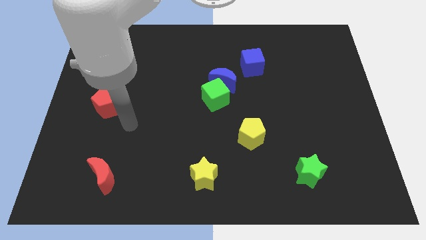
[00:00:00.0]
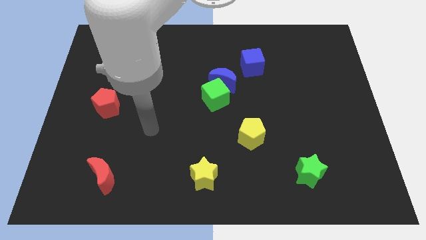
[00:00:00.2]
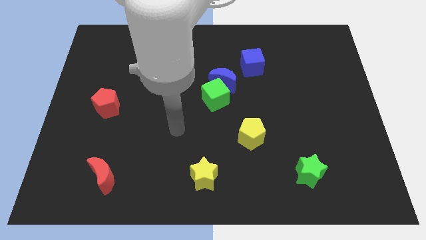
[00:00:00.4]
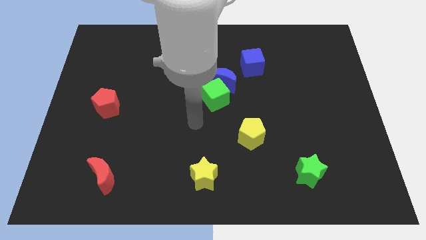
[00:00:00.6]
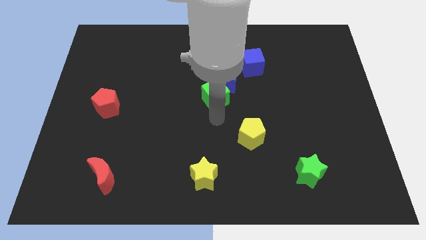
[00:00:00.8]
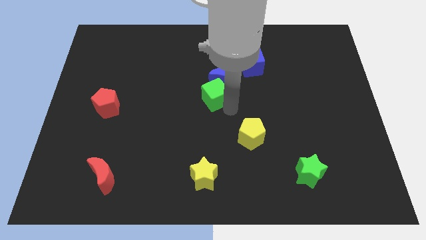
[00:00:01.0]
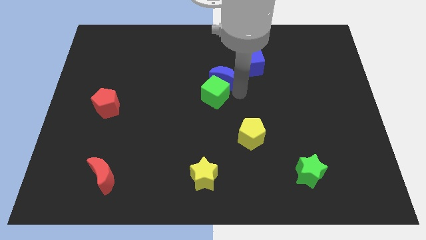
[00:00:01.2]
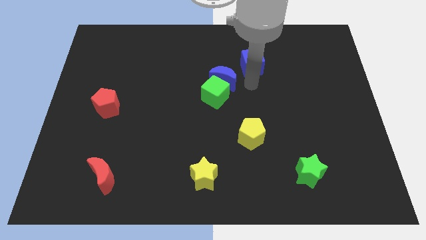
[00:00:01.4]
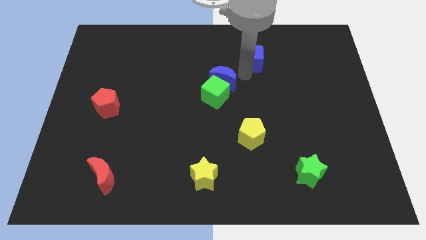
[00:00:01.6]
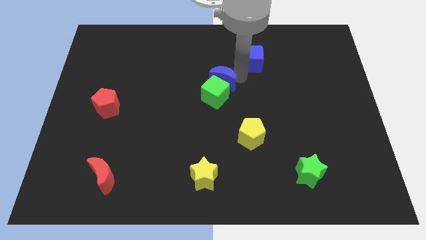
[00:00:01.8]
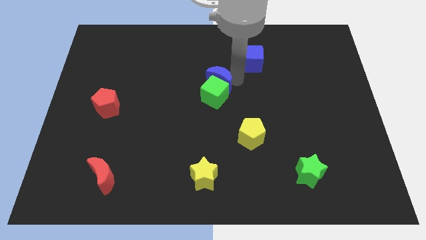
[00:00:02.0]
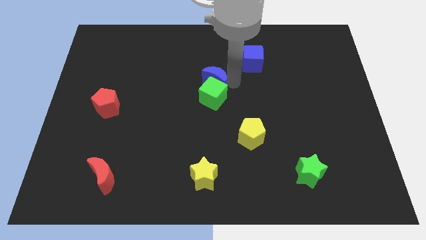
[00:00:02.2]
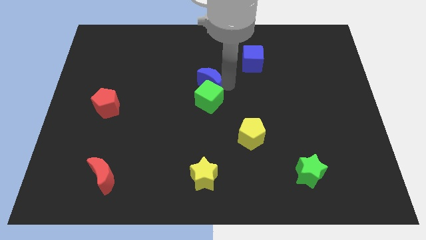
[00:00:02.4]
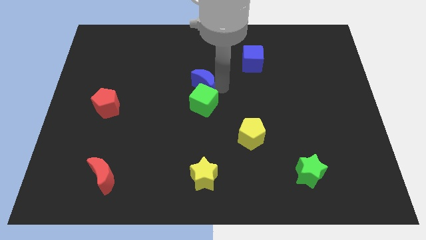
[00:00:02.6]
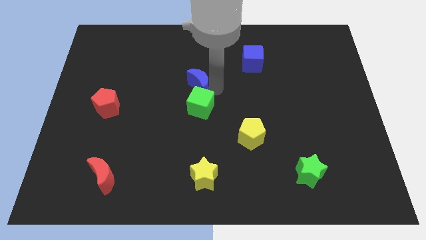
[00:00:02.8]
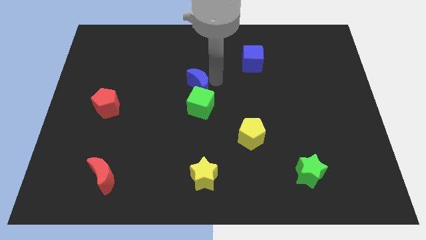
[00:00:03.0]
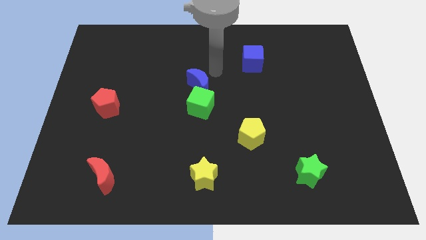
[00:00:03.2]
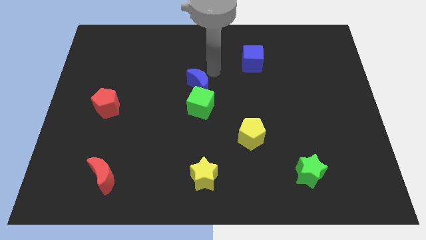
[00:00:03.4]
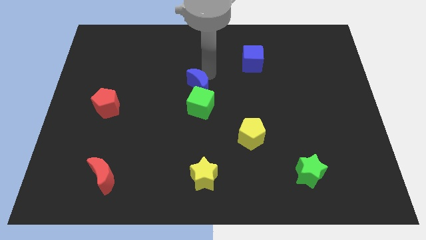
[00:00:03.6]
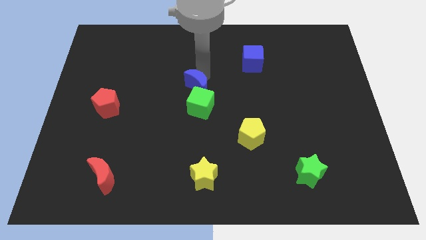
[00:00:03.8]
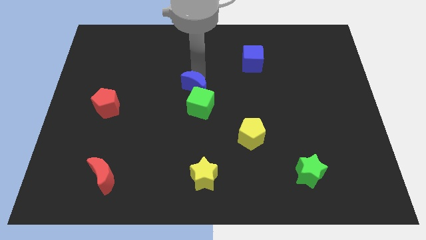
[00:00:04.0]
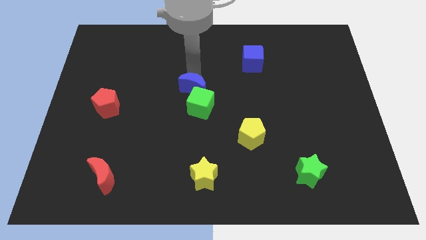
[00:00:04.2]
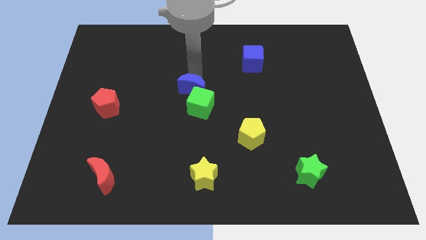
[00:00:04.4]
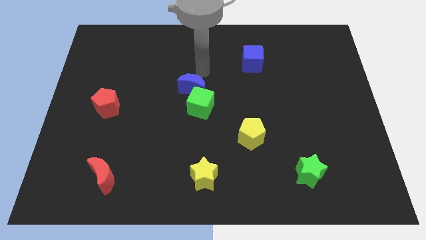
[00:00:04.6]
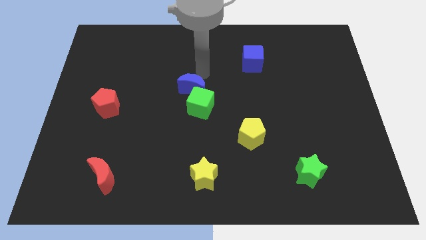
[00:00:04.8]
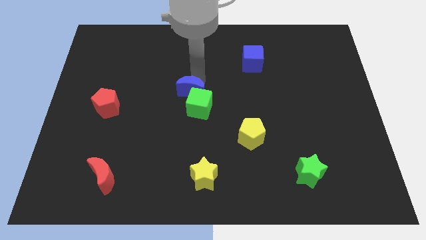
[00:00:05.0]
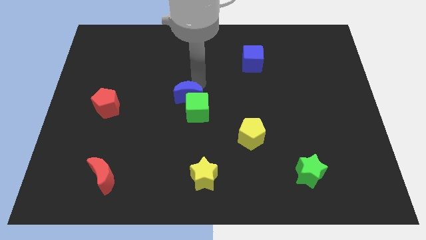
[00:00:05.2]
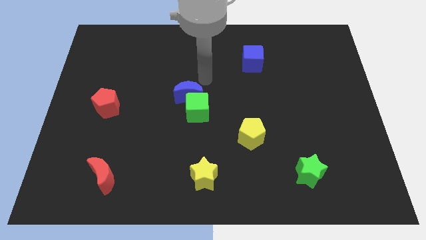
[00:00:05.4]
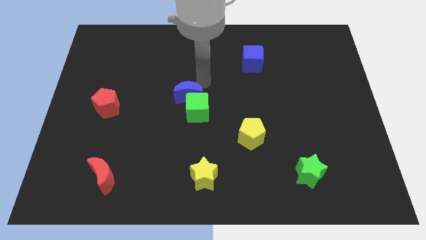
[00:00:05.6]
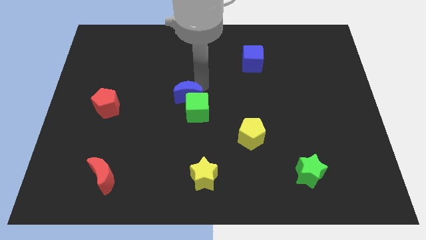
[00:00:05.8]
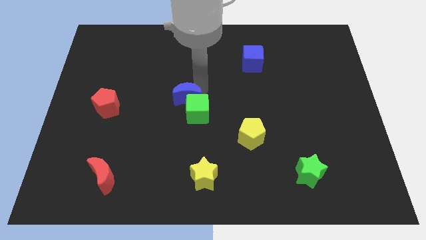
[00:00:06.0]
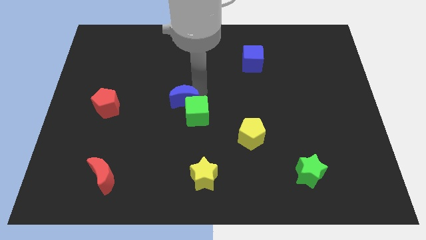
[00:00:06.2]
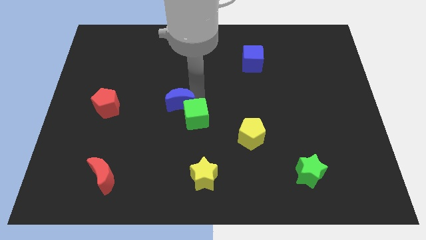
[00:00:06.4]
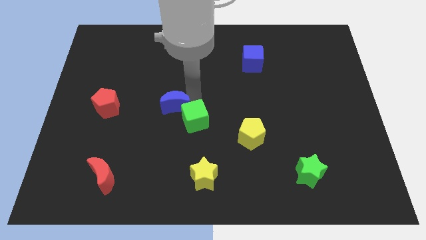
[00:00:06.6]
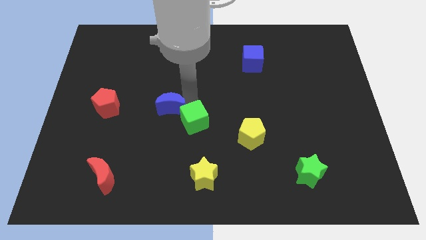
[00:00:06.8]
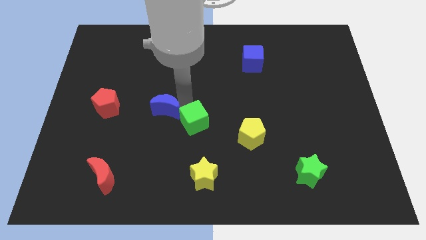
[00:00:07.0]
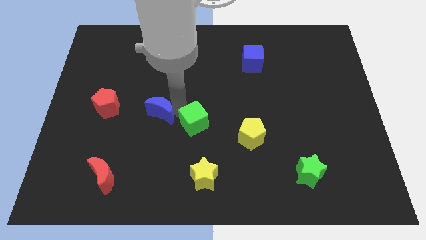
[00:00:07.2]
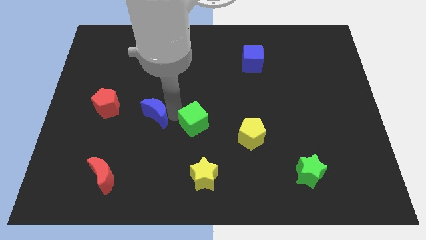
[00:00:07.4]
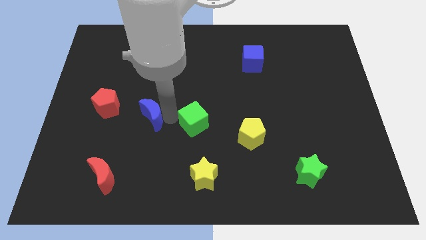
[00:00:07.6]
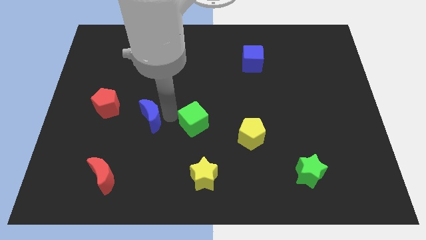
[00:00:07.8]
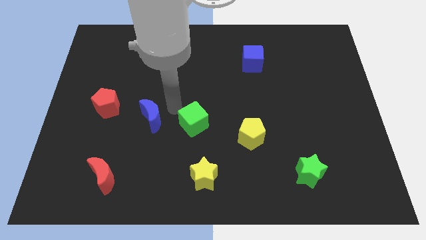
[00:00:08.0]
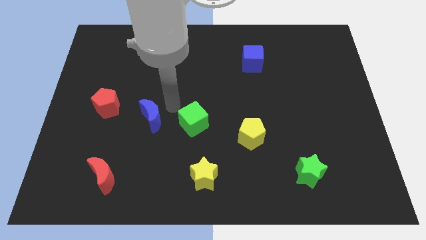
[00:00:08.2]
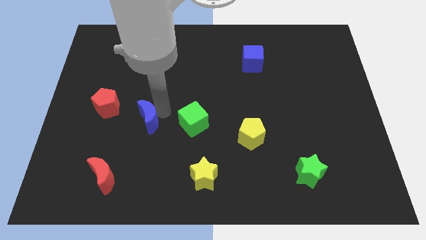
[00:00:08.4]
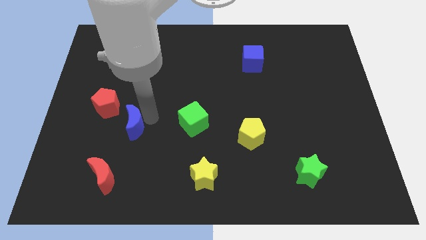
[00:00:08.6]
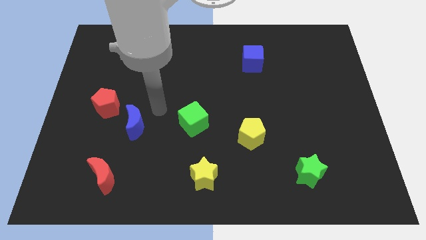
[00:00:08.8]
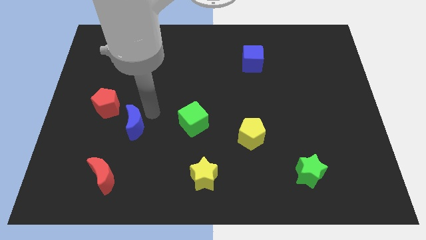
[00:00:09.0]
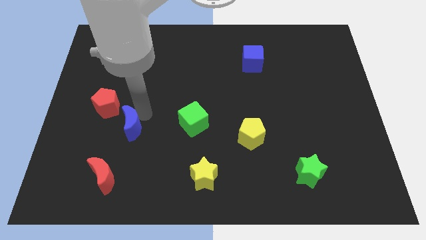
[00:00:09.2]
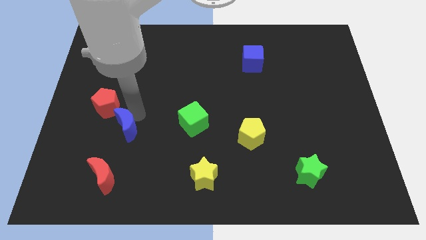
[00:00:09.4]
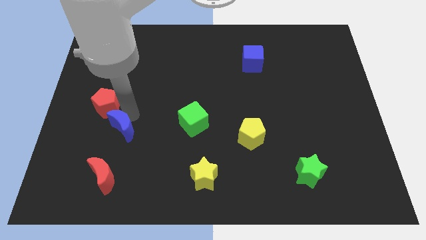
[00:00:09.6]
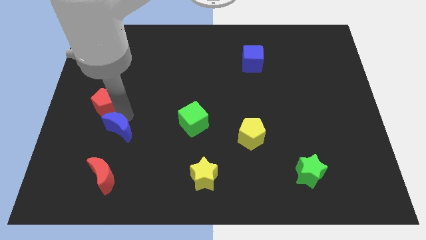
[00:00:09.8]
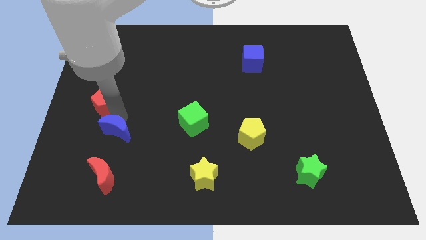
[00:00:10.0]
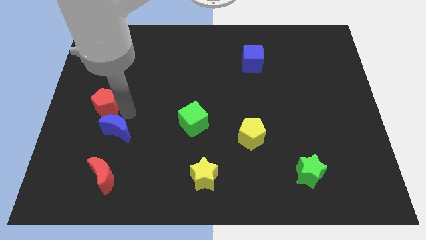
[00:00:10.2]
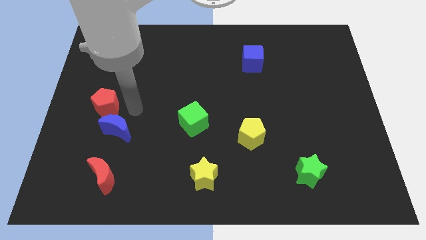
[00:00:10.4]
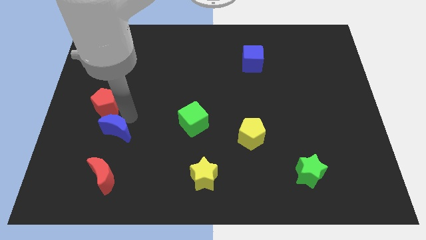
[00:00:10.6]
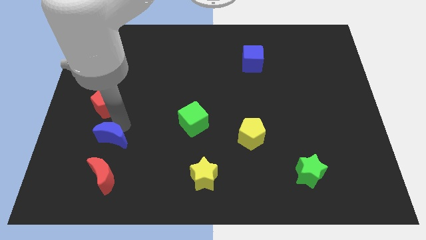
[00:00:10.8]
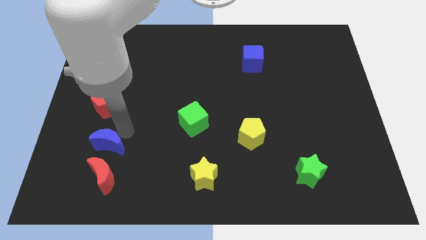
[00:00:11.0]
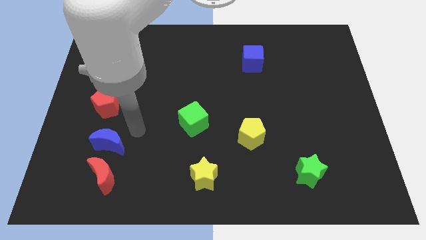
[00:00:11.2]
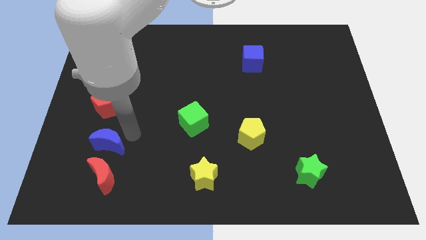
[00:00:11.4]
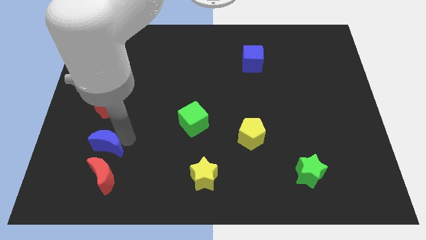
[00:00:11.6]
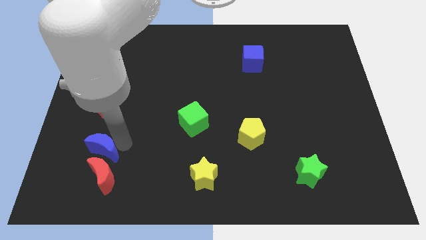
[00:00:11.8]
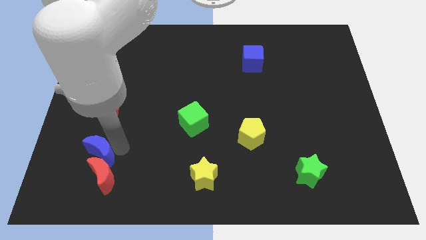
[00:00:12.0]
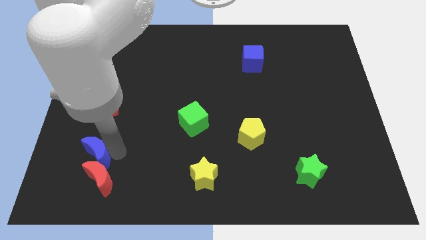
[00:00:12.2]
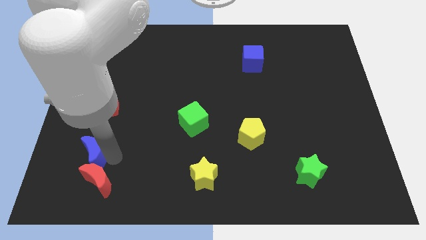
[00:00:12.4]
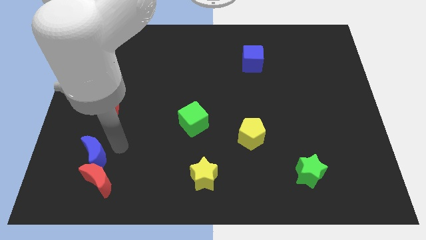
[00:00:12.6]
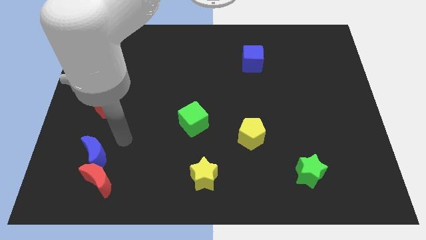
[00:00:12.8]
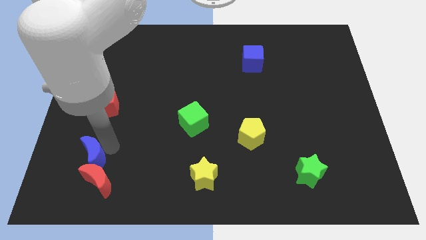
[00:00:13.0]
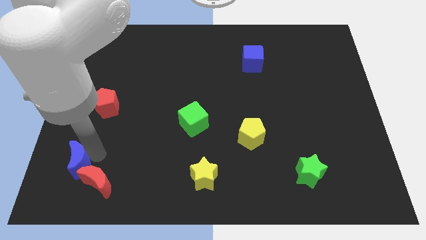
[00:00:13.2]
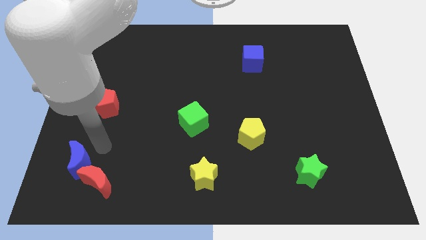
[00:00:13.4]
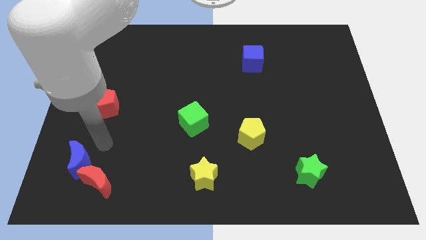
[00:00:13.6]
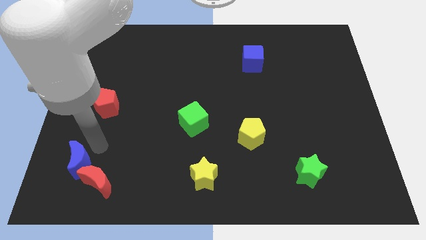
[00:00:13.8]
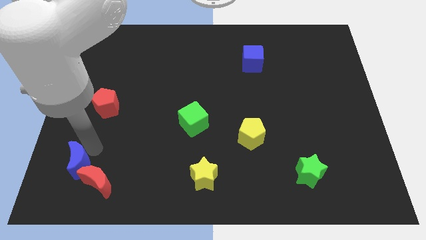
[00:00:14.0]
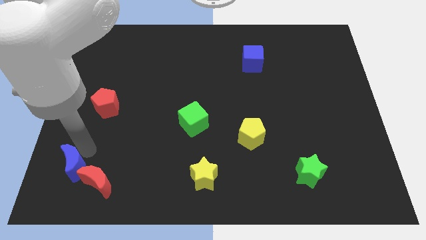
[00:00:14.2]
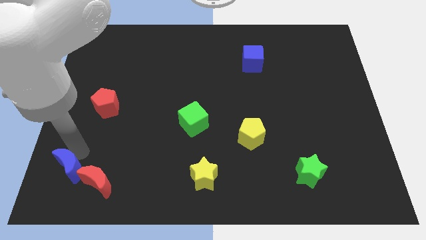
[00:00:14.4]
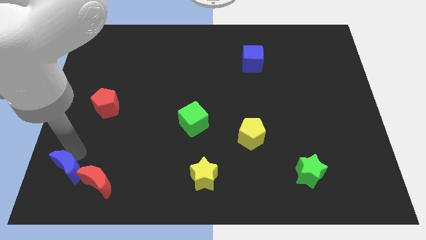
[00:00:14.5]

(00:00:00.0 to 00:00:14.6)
move the blue moon to the bottom left
